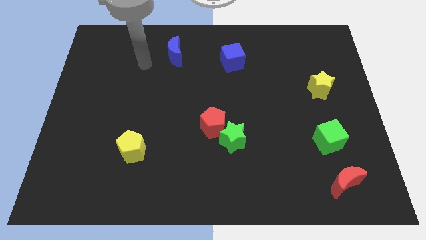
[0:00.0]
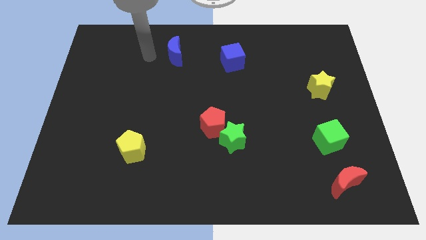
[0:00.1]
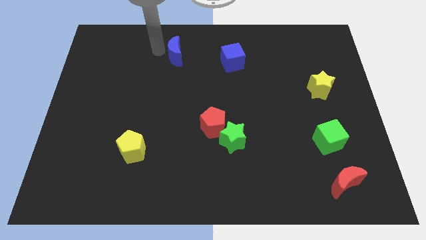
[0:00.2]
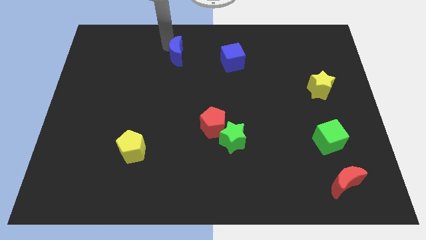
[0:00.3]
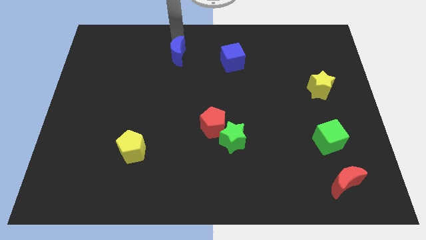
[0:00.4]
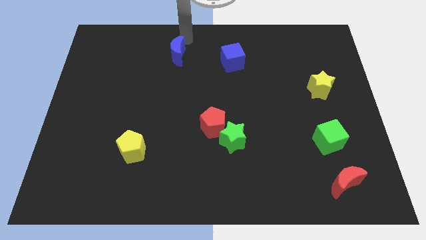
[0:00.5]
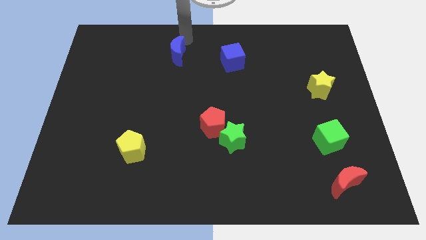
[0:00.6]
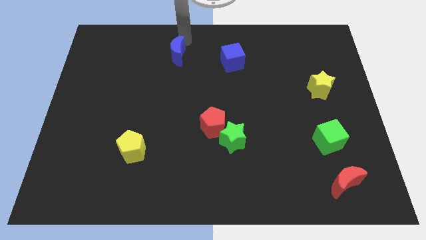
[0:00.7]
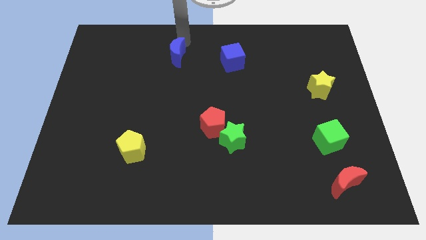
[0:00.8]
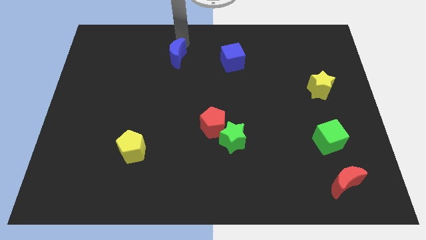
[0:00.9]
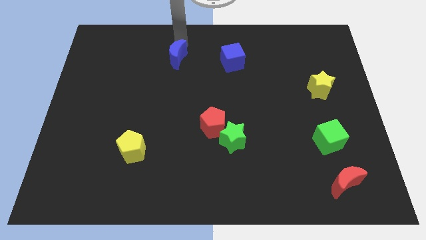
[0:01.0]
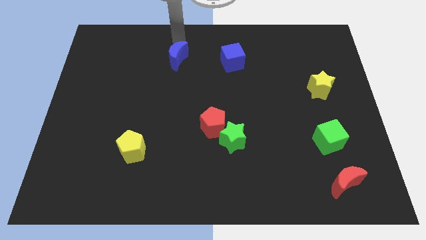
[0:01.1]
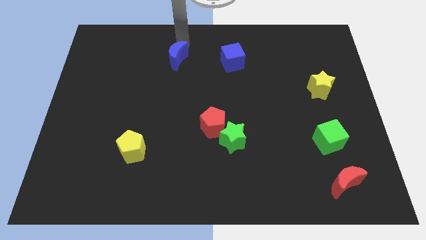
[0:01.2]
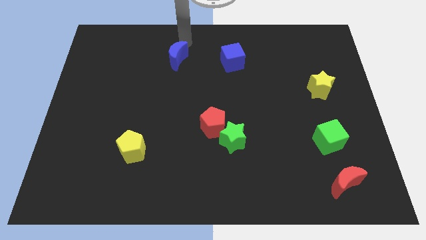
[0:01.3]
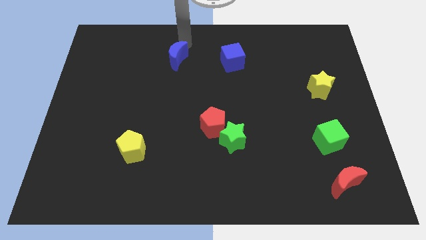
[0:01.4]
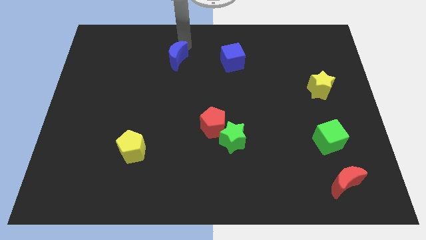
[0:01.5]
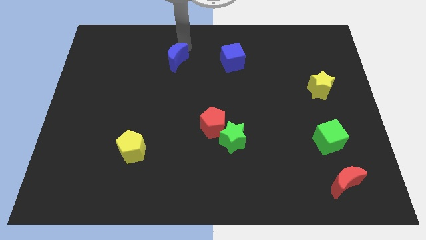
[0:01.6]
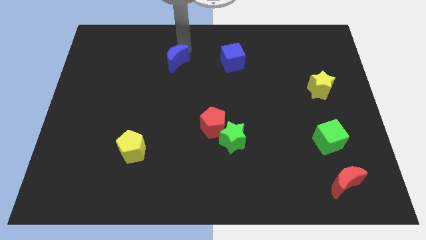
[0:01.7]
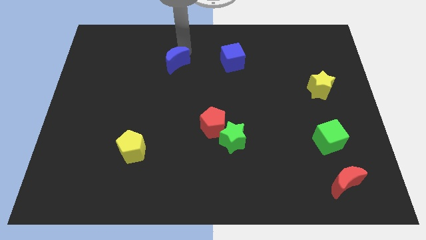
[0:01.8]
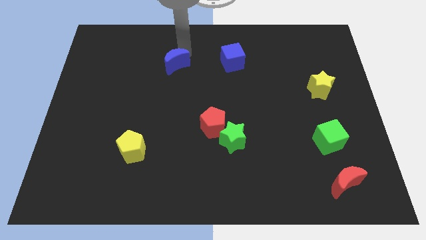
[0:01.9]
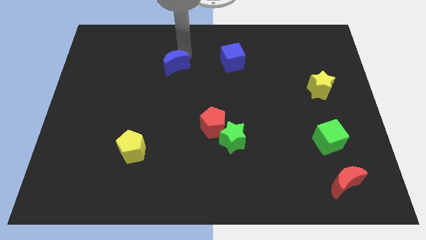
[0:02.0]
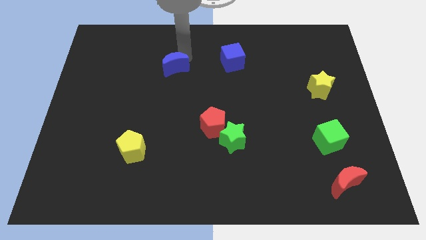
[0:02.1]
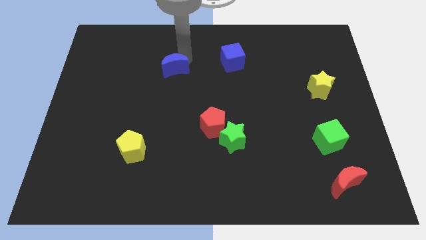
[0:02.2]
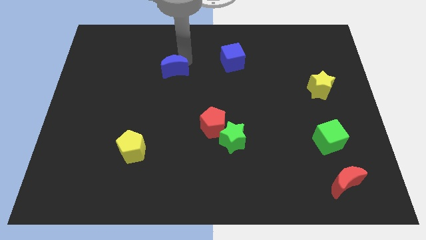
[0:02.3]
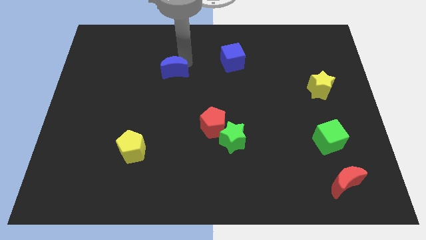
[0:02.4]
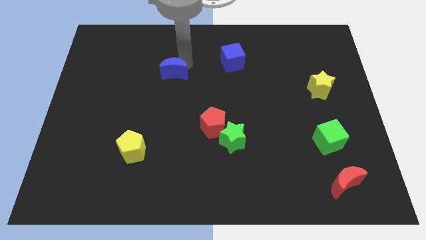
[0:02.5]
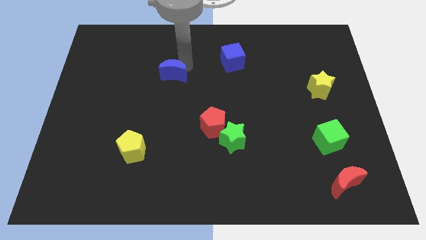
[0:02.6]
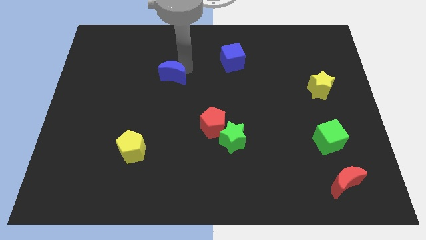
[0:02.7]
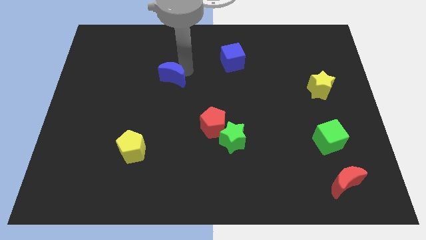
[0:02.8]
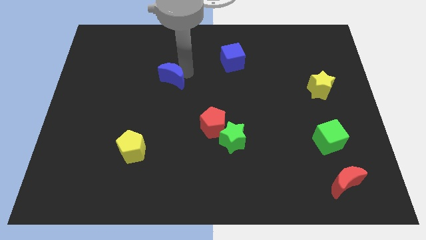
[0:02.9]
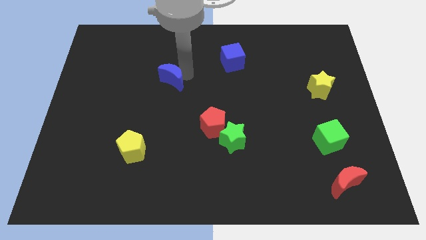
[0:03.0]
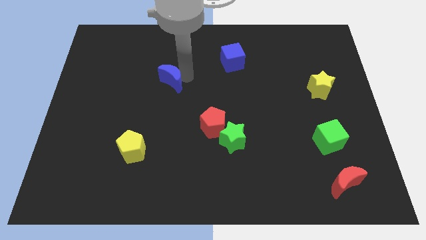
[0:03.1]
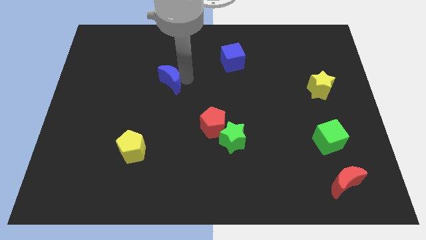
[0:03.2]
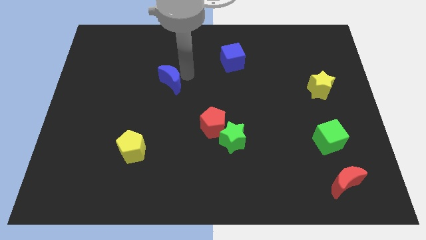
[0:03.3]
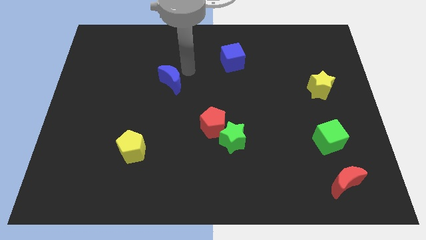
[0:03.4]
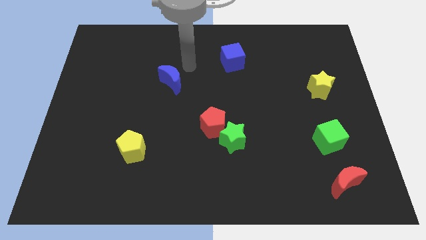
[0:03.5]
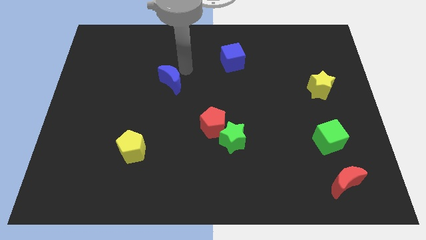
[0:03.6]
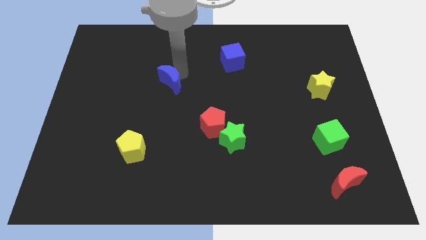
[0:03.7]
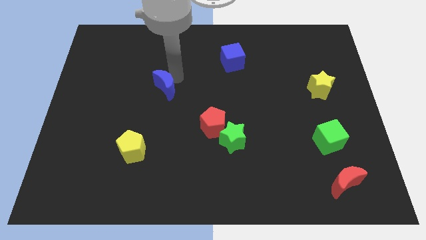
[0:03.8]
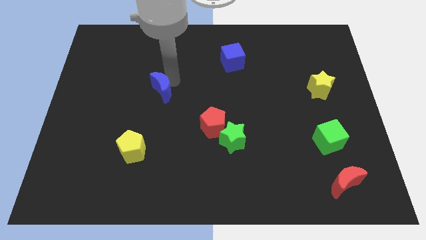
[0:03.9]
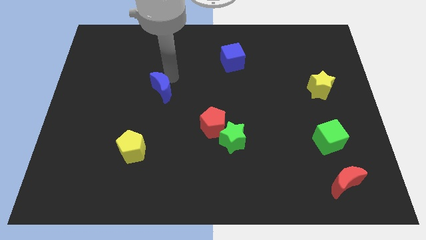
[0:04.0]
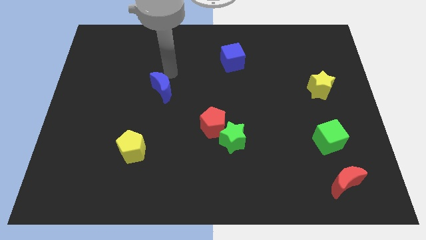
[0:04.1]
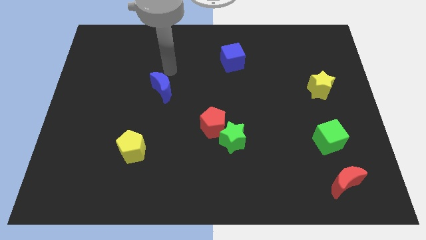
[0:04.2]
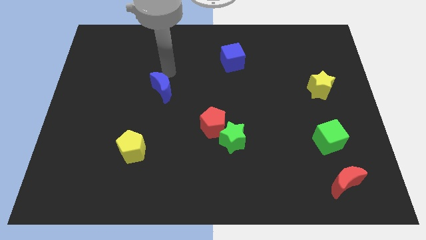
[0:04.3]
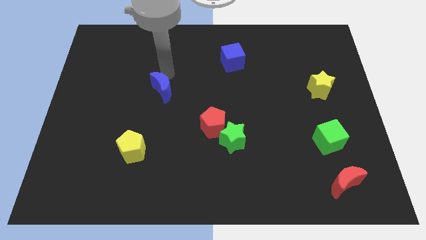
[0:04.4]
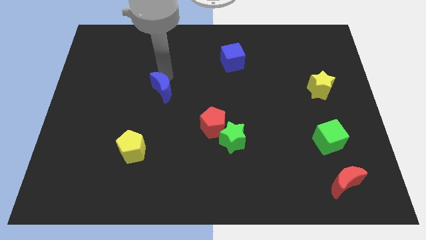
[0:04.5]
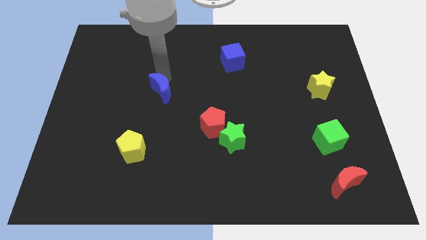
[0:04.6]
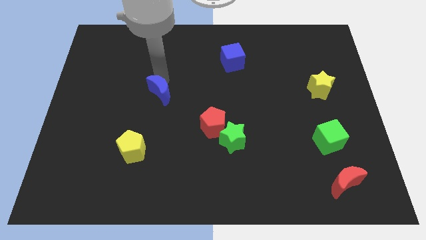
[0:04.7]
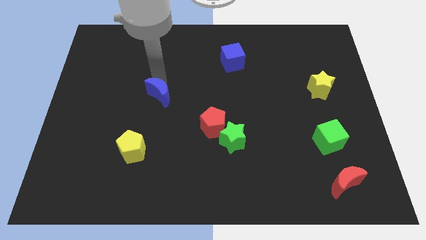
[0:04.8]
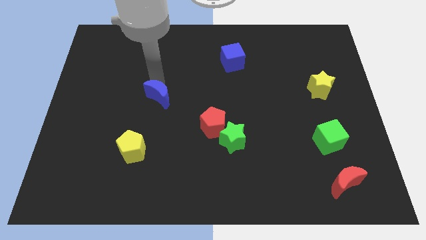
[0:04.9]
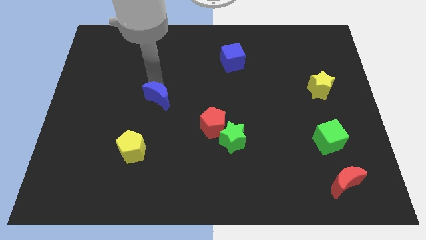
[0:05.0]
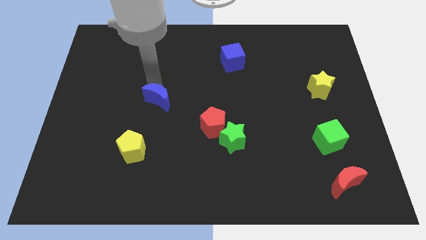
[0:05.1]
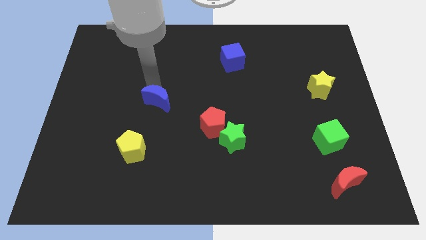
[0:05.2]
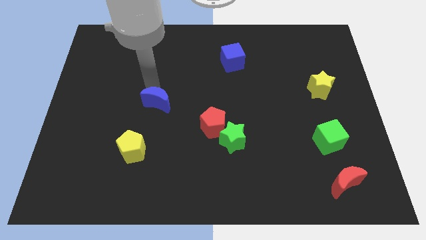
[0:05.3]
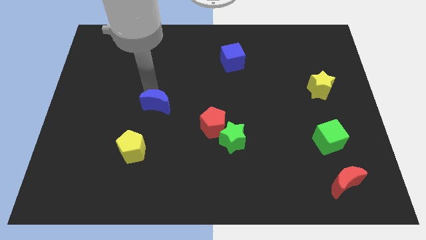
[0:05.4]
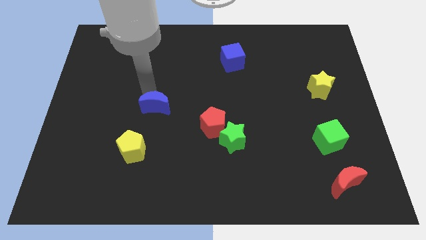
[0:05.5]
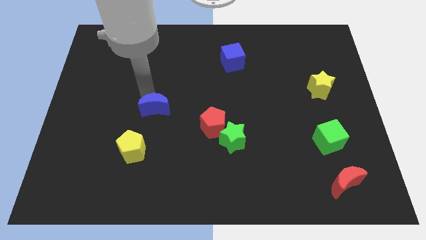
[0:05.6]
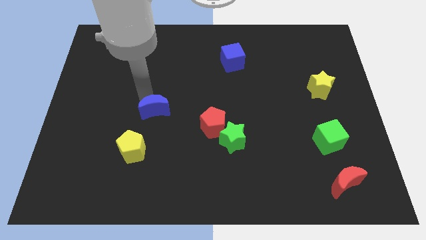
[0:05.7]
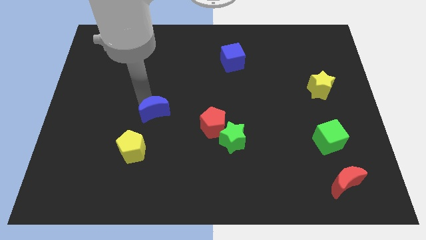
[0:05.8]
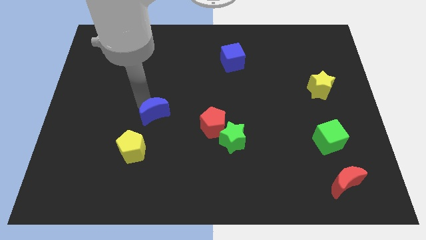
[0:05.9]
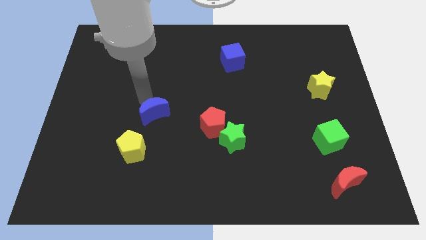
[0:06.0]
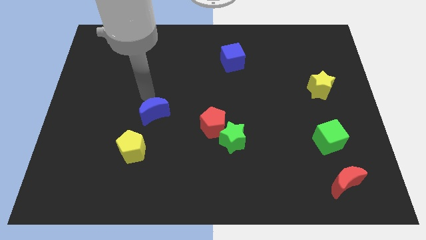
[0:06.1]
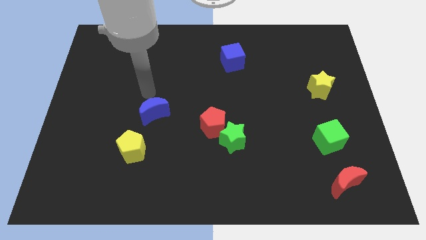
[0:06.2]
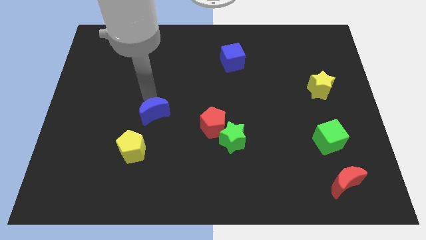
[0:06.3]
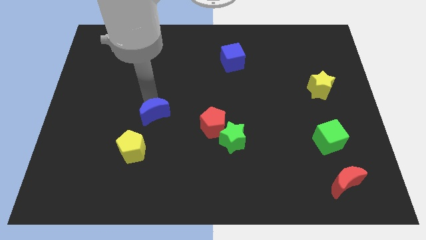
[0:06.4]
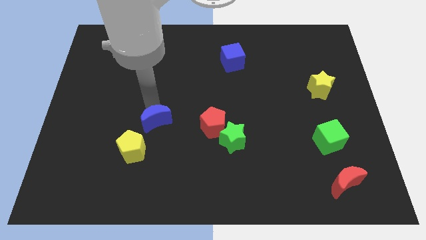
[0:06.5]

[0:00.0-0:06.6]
move the blue moon down

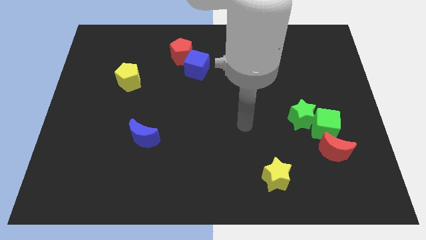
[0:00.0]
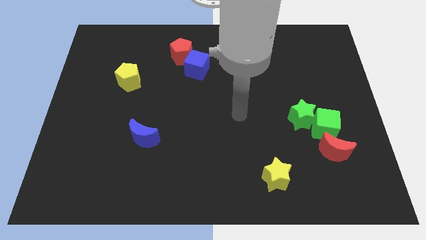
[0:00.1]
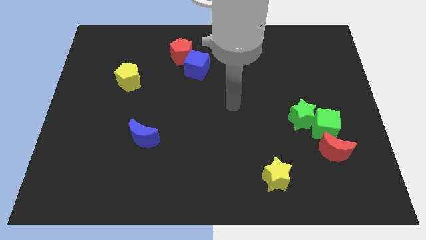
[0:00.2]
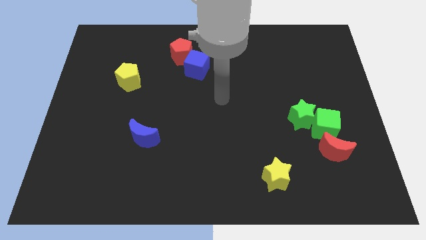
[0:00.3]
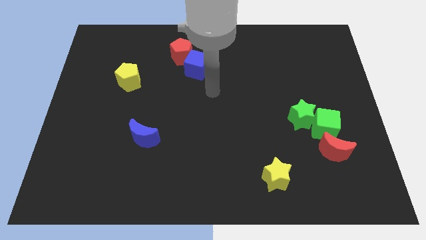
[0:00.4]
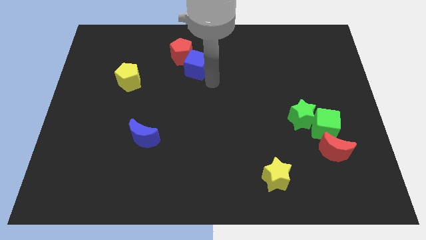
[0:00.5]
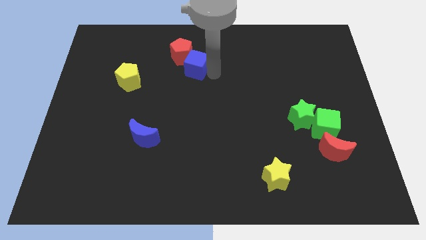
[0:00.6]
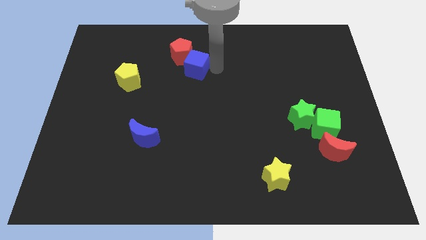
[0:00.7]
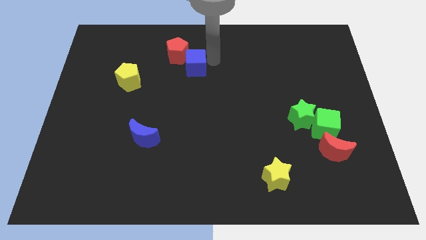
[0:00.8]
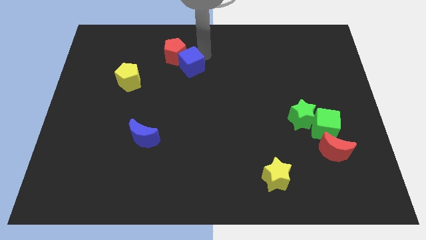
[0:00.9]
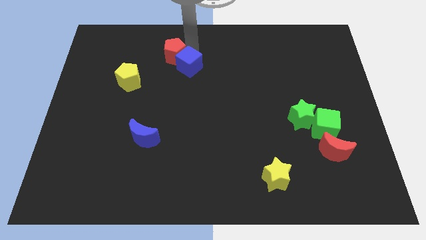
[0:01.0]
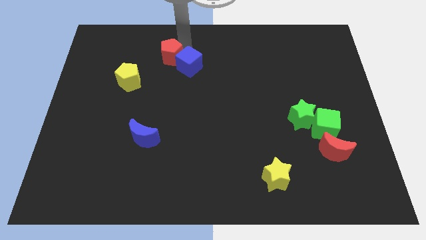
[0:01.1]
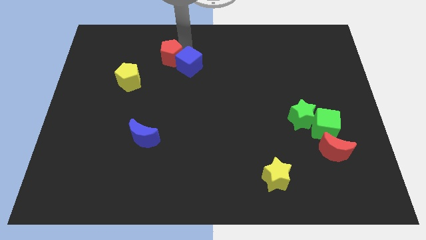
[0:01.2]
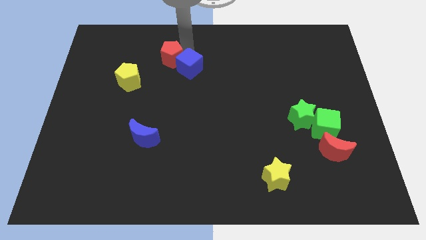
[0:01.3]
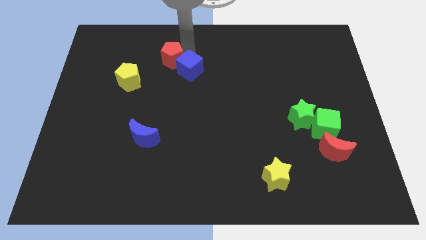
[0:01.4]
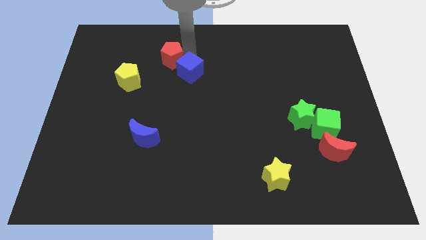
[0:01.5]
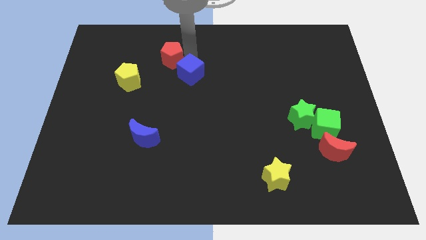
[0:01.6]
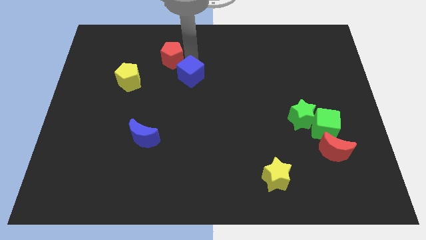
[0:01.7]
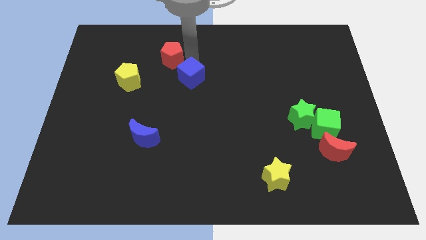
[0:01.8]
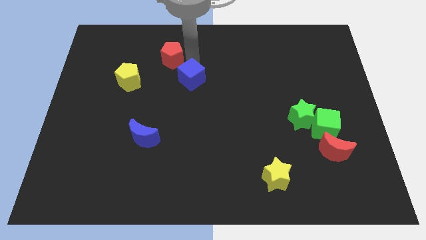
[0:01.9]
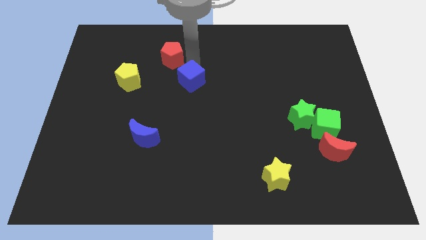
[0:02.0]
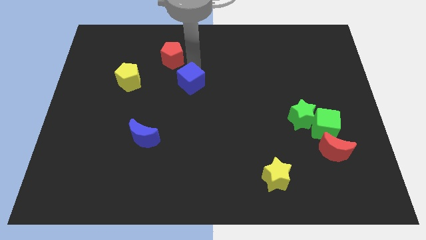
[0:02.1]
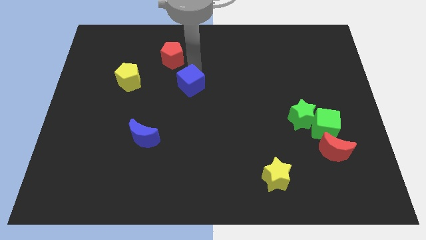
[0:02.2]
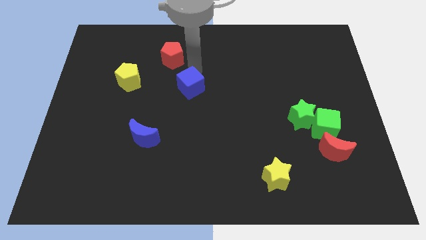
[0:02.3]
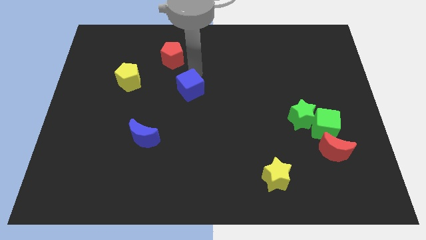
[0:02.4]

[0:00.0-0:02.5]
slide the blue cube down somewhat
